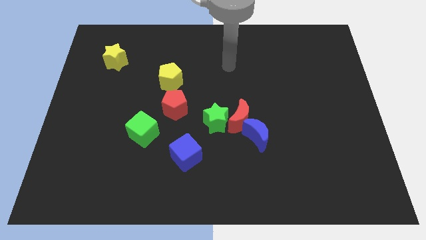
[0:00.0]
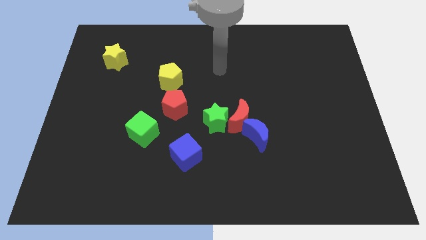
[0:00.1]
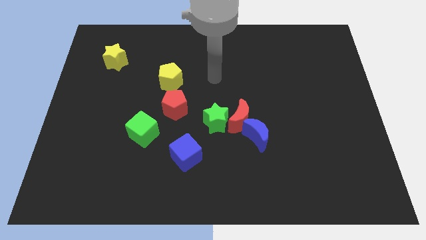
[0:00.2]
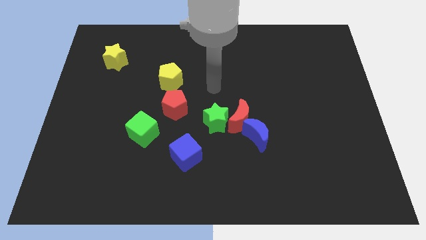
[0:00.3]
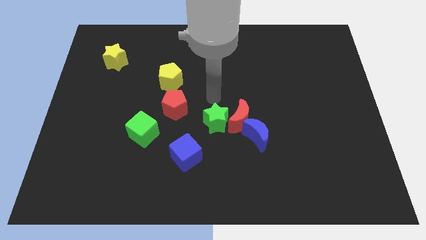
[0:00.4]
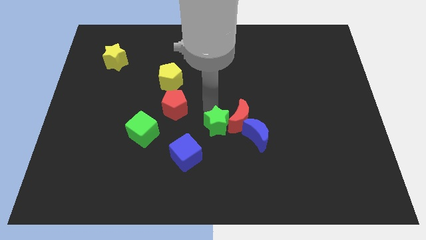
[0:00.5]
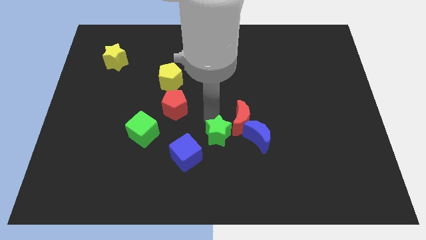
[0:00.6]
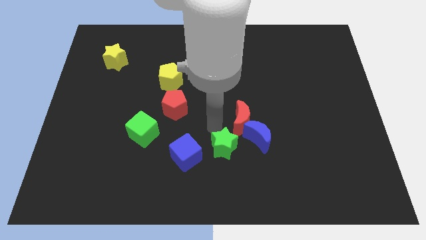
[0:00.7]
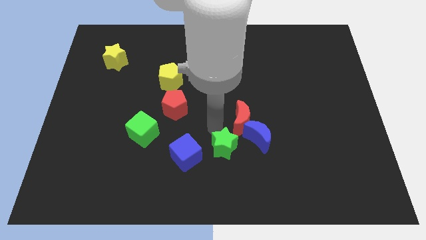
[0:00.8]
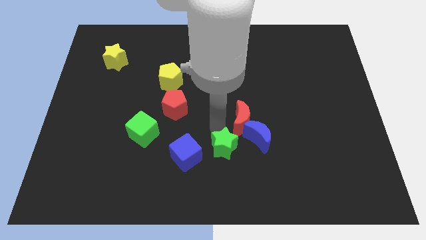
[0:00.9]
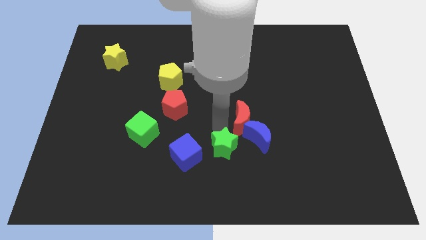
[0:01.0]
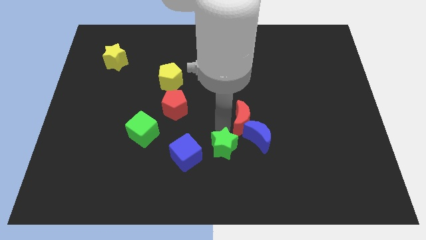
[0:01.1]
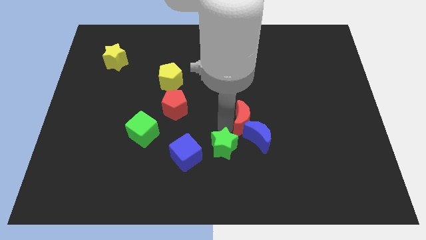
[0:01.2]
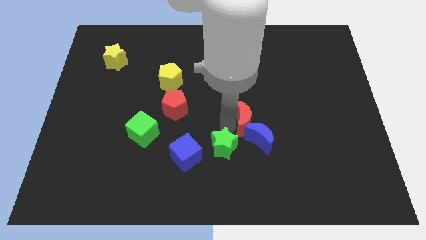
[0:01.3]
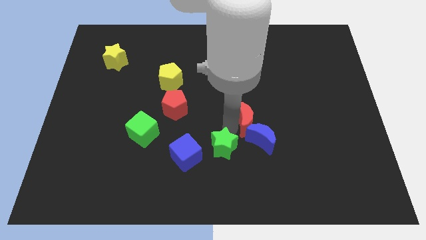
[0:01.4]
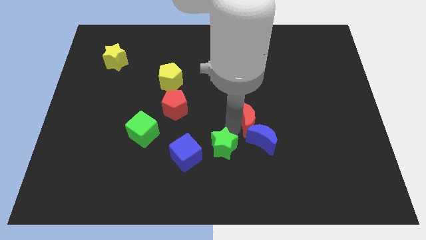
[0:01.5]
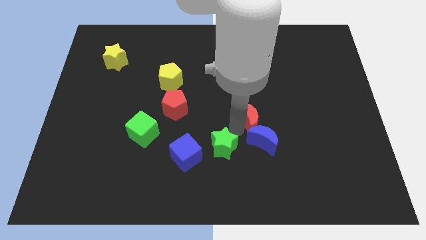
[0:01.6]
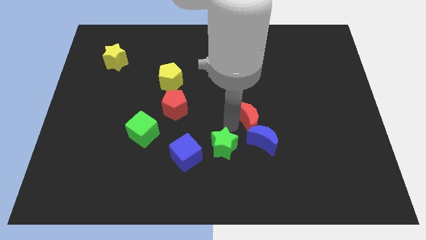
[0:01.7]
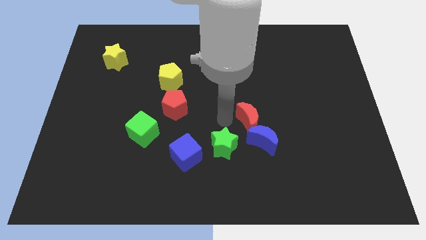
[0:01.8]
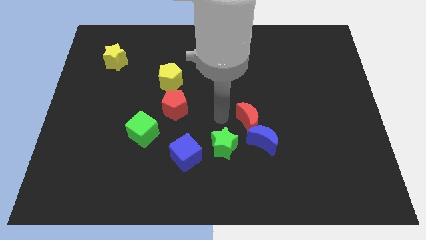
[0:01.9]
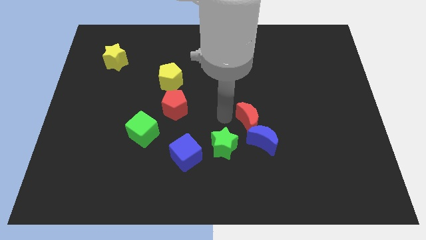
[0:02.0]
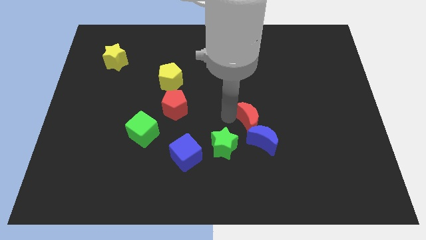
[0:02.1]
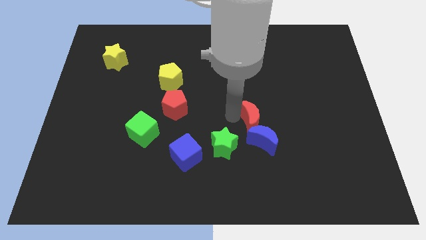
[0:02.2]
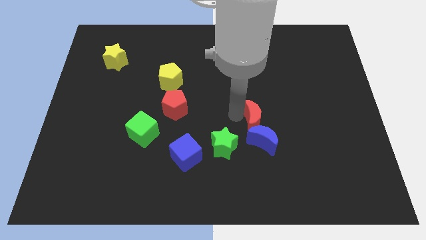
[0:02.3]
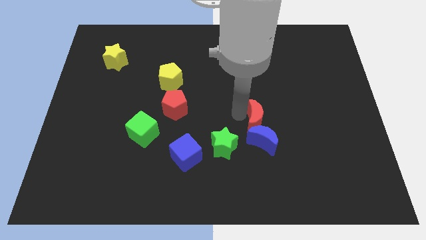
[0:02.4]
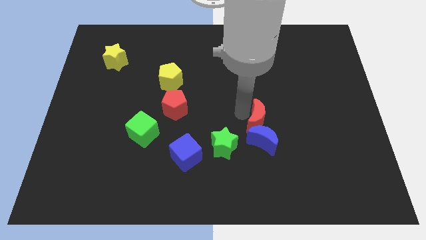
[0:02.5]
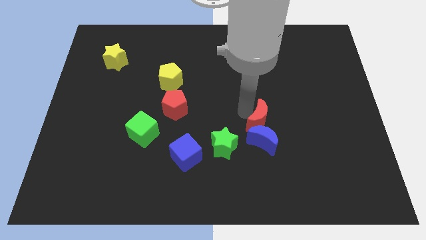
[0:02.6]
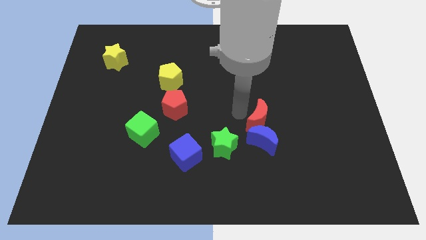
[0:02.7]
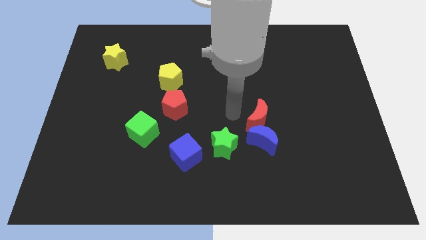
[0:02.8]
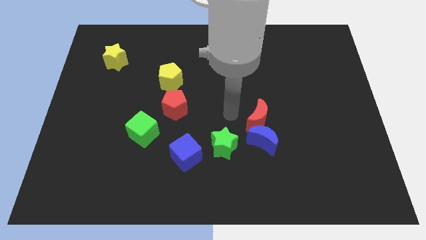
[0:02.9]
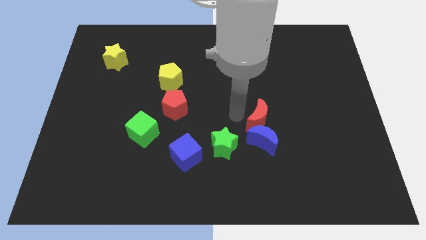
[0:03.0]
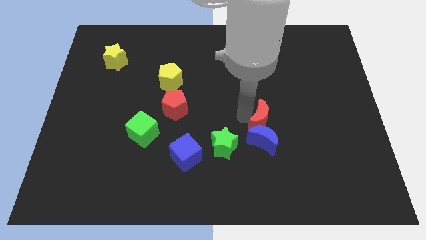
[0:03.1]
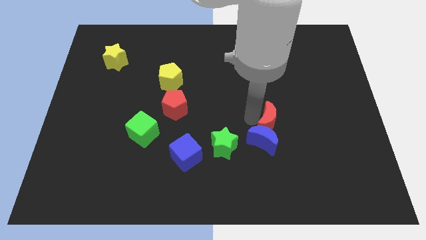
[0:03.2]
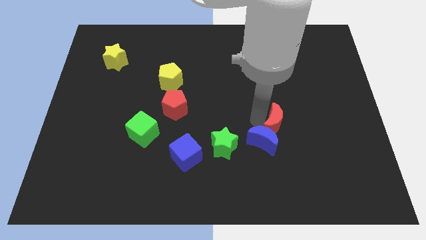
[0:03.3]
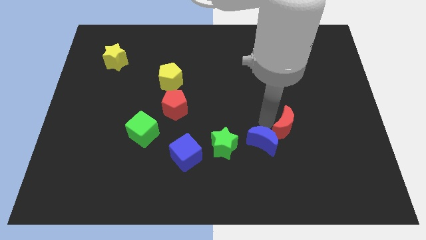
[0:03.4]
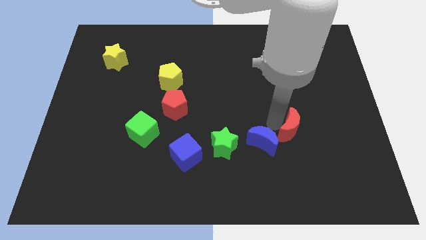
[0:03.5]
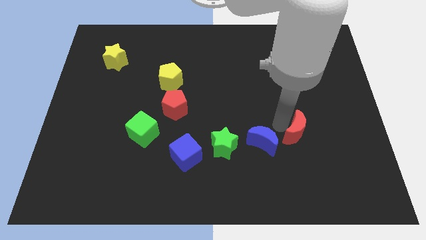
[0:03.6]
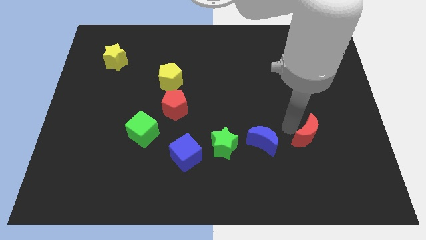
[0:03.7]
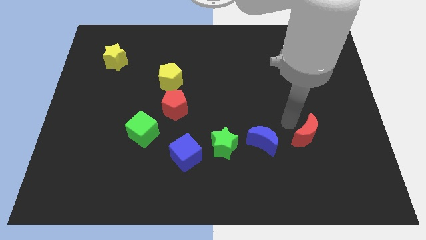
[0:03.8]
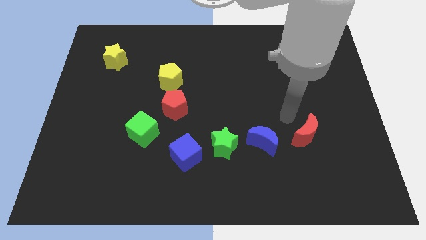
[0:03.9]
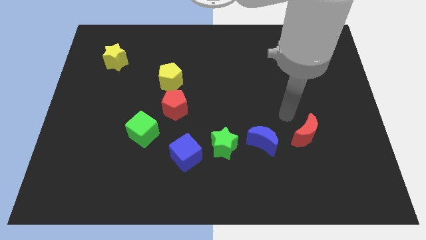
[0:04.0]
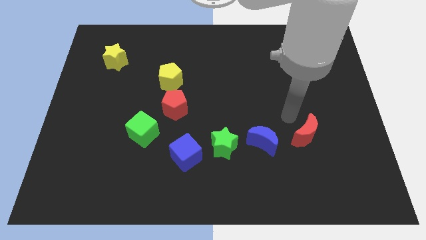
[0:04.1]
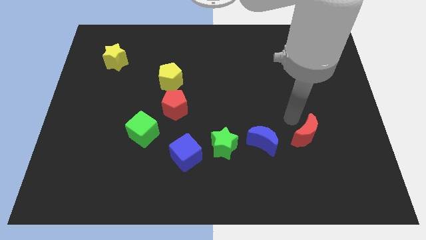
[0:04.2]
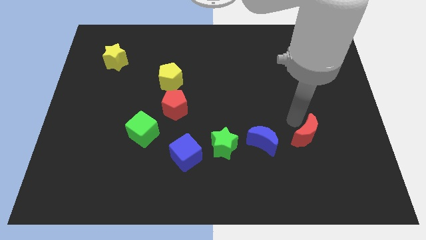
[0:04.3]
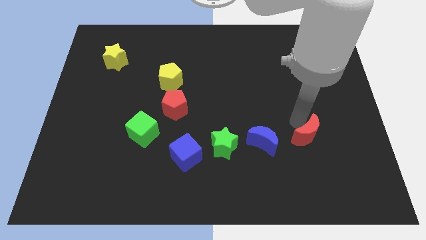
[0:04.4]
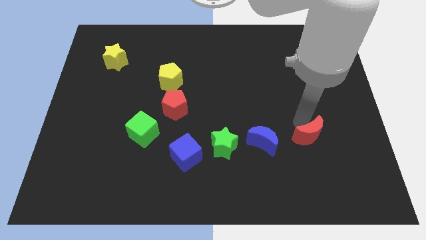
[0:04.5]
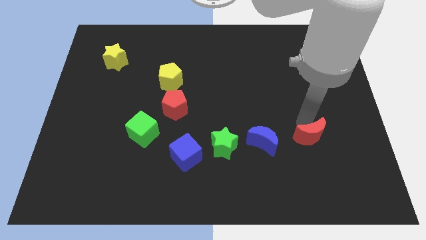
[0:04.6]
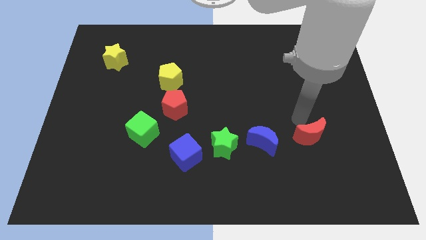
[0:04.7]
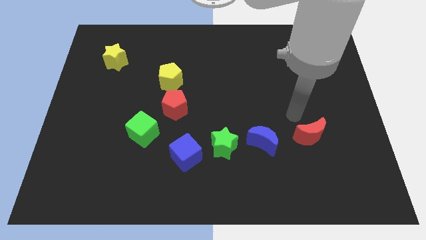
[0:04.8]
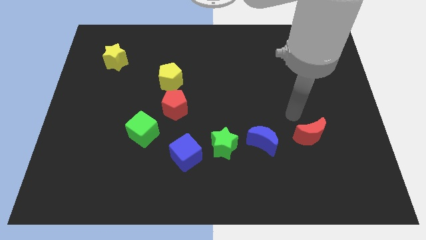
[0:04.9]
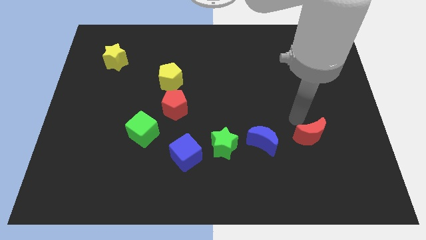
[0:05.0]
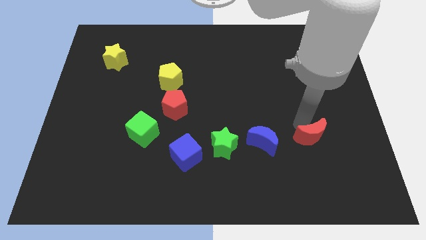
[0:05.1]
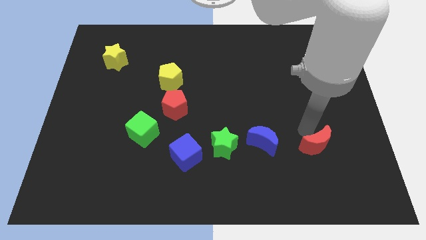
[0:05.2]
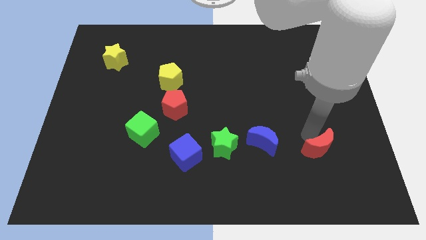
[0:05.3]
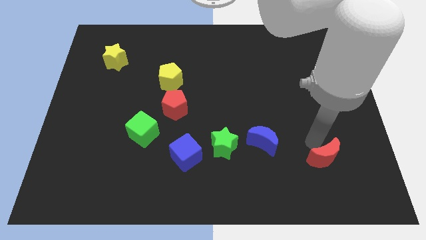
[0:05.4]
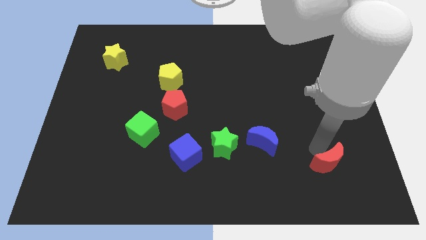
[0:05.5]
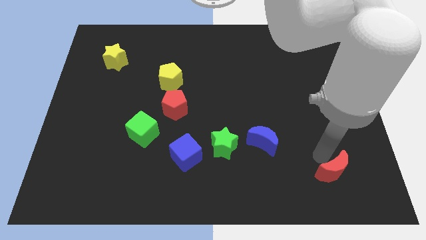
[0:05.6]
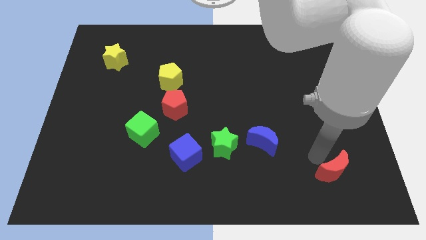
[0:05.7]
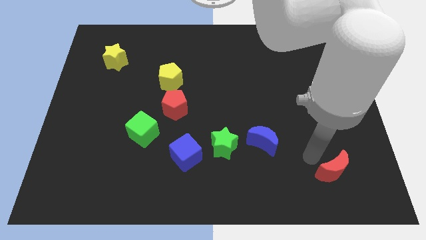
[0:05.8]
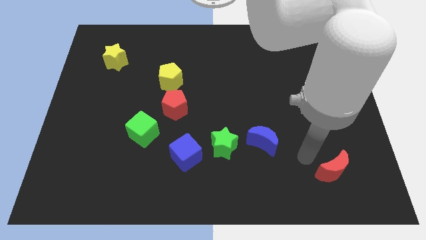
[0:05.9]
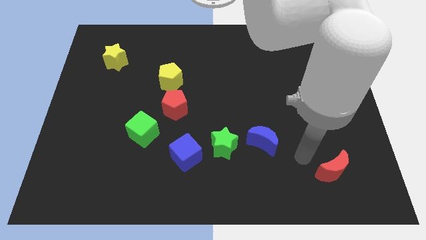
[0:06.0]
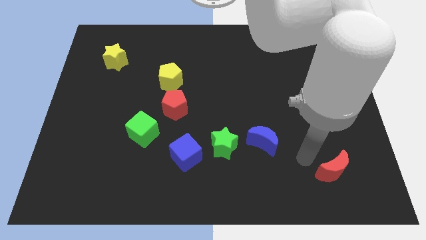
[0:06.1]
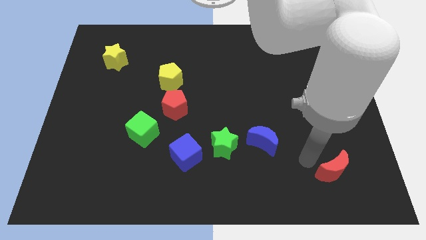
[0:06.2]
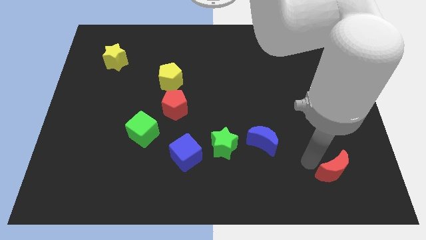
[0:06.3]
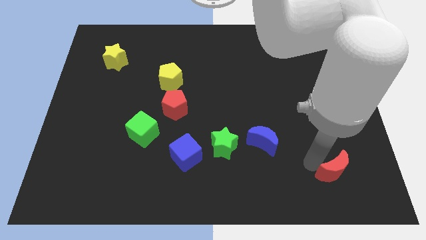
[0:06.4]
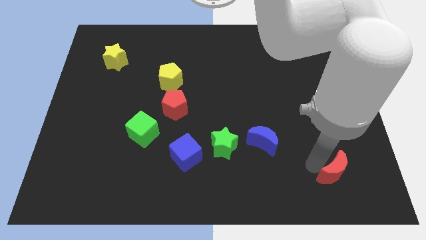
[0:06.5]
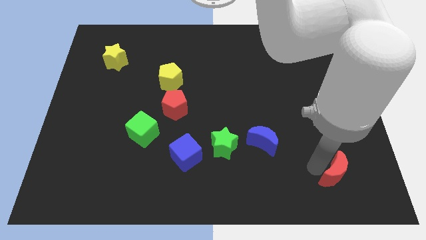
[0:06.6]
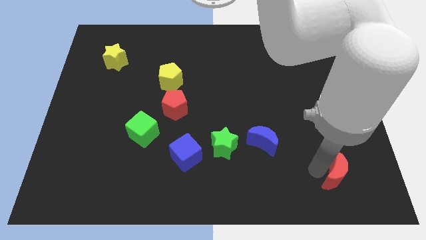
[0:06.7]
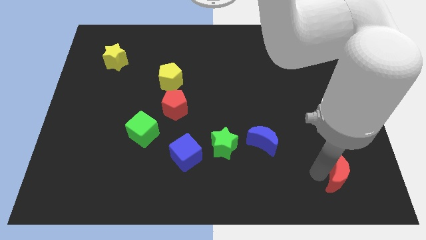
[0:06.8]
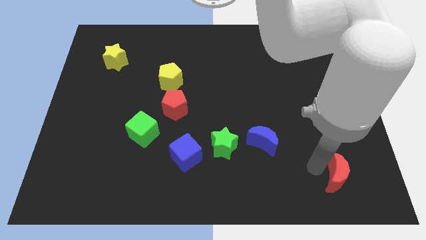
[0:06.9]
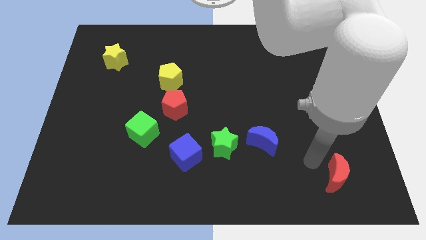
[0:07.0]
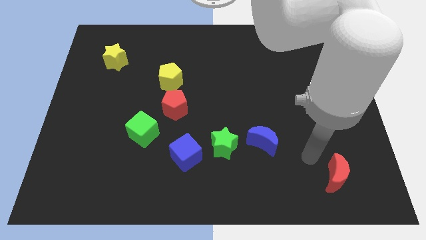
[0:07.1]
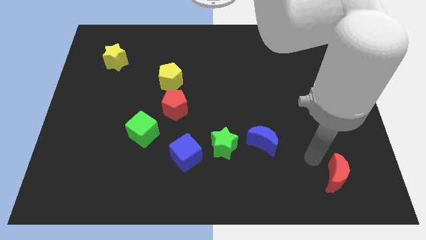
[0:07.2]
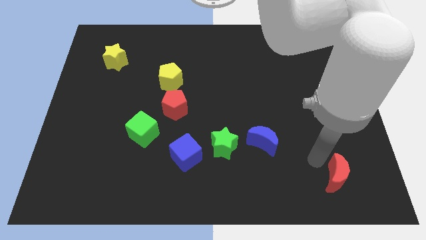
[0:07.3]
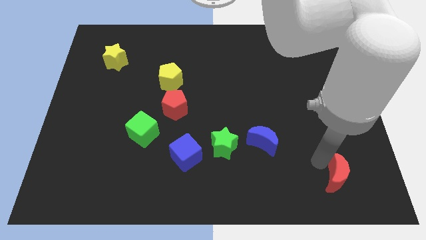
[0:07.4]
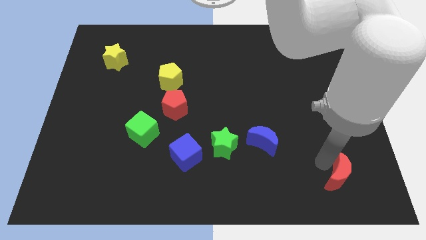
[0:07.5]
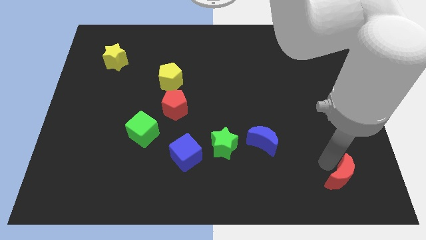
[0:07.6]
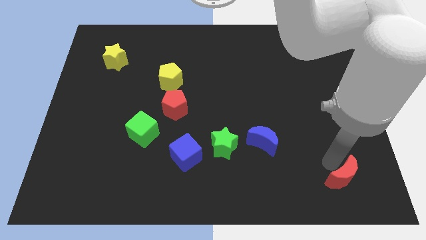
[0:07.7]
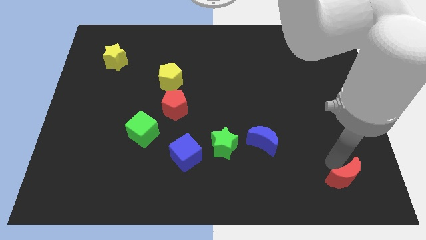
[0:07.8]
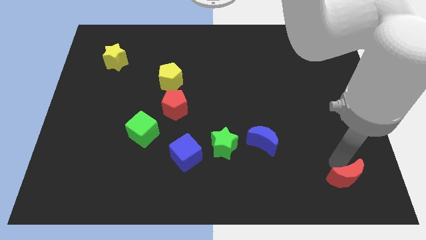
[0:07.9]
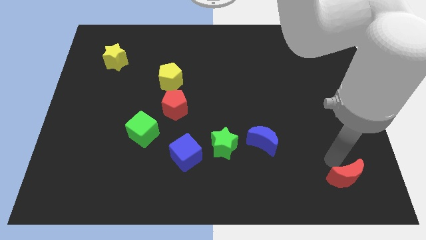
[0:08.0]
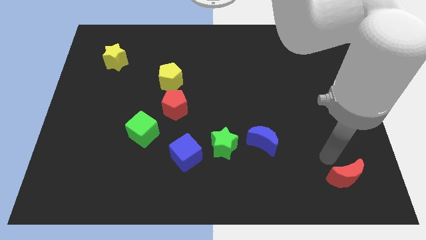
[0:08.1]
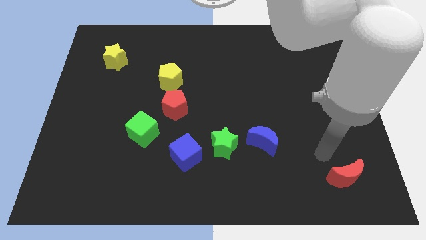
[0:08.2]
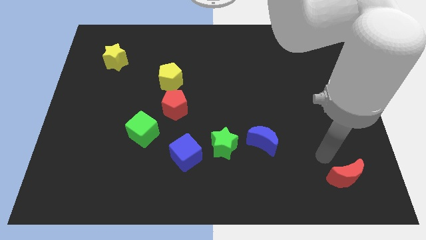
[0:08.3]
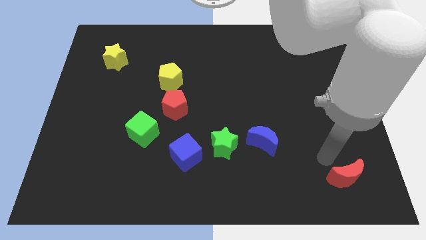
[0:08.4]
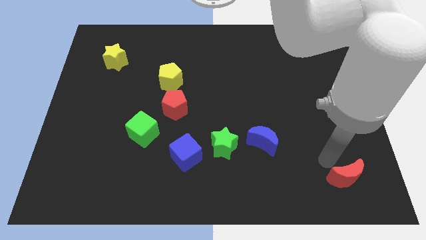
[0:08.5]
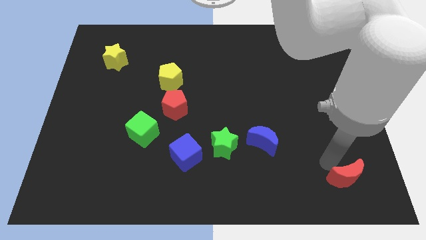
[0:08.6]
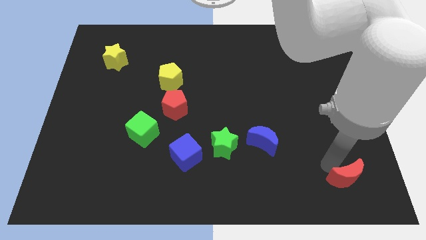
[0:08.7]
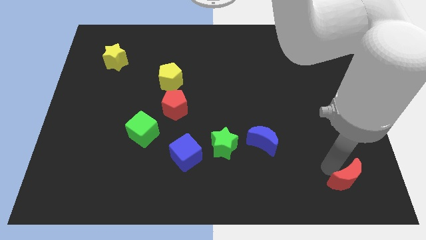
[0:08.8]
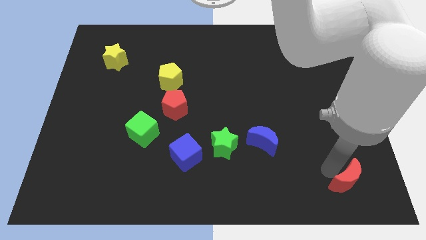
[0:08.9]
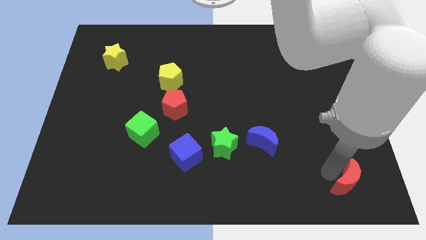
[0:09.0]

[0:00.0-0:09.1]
put the red moon to the lower right corner
